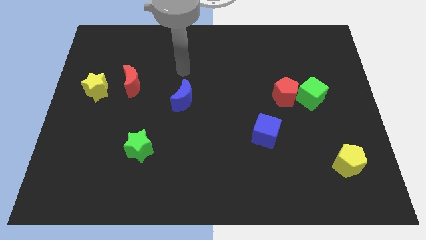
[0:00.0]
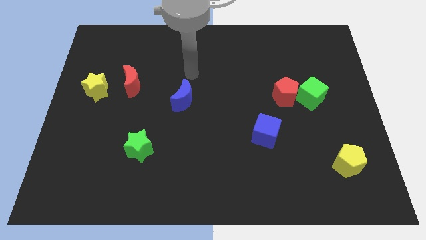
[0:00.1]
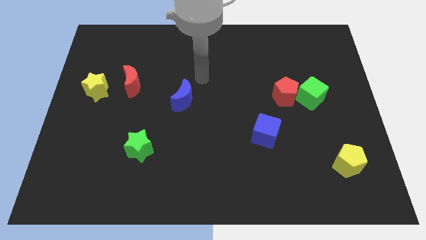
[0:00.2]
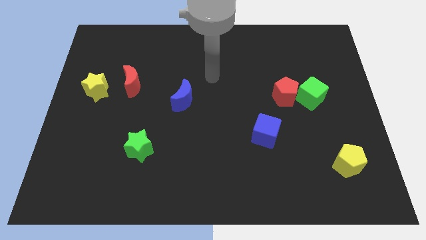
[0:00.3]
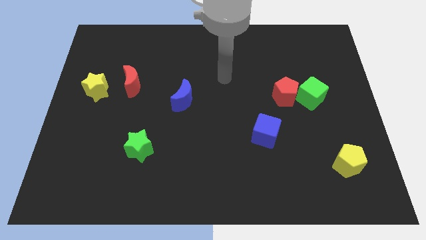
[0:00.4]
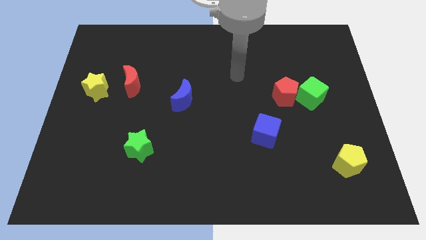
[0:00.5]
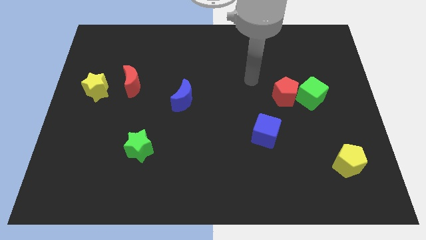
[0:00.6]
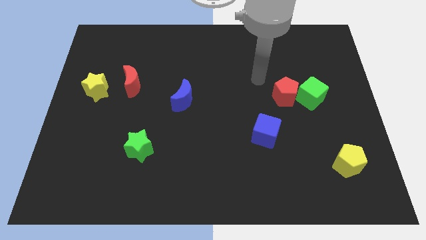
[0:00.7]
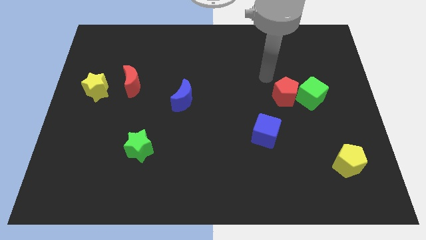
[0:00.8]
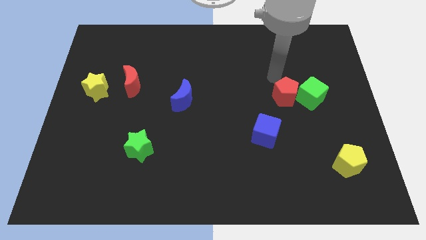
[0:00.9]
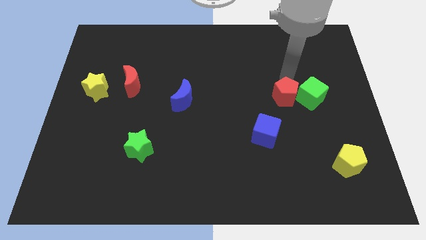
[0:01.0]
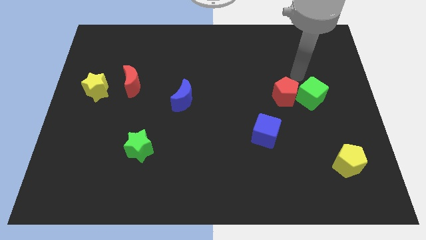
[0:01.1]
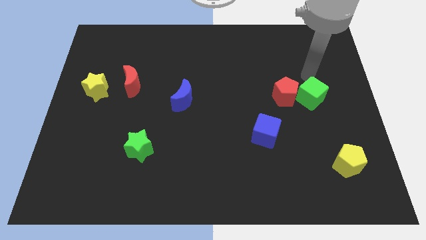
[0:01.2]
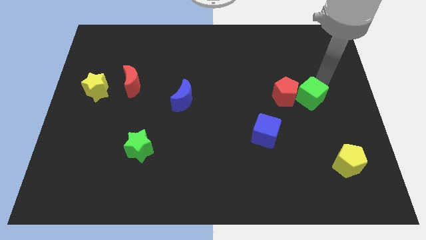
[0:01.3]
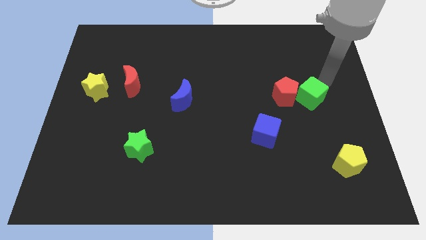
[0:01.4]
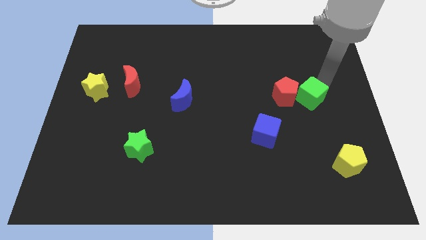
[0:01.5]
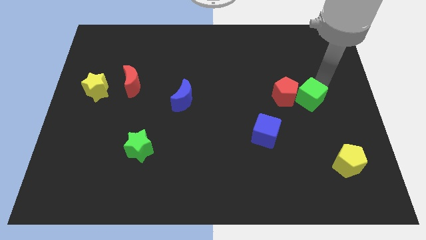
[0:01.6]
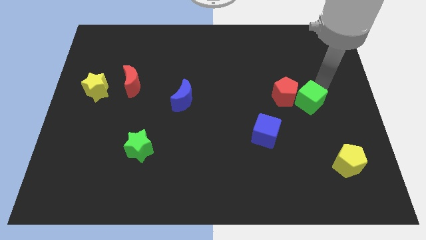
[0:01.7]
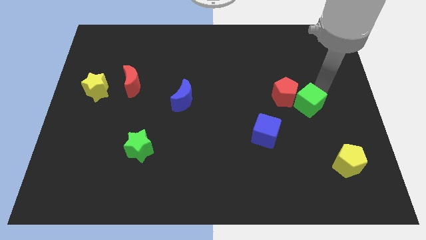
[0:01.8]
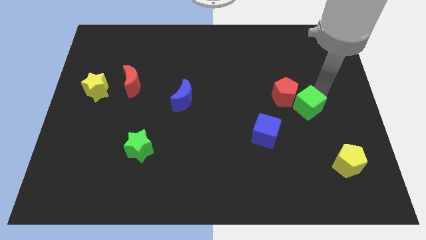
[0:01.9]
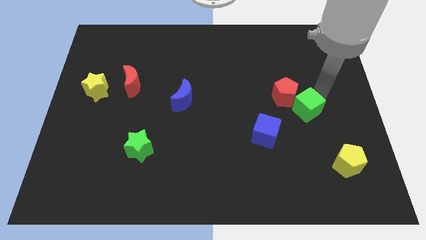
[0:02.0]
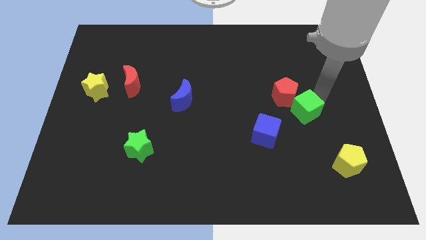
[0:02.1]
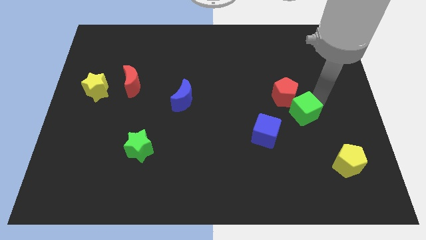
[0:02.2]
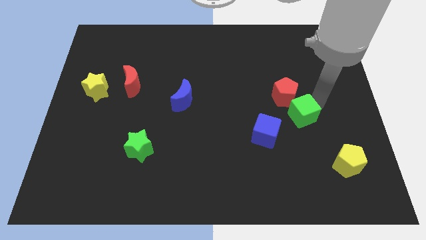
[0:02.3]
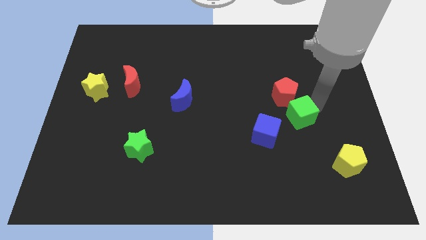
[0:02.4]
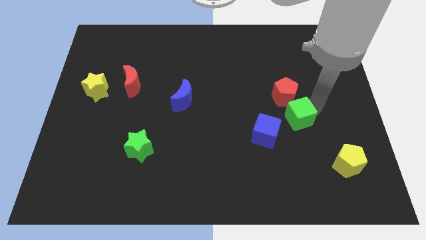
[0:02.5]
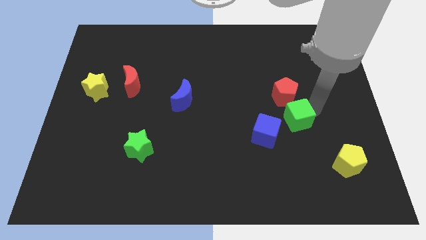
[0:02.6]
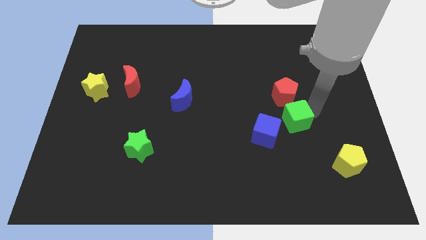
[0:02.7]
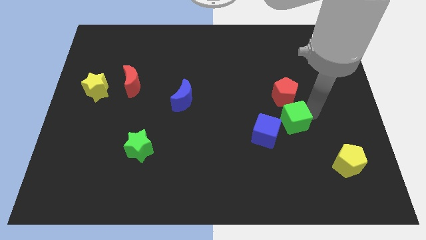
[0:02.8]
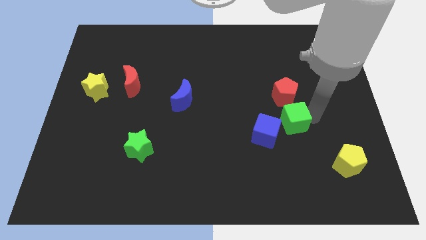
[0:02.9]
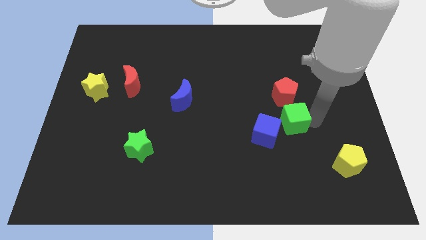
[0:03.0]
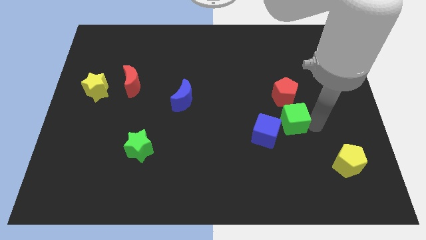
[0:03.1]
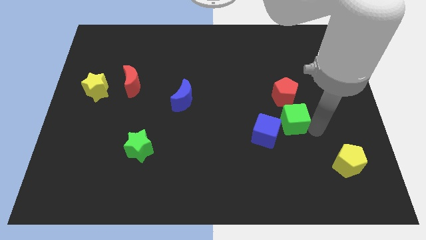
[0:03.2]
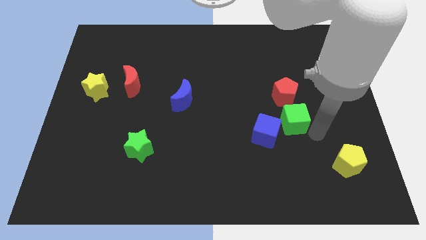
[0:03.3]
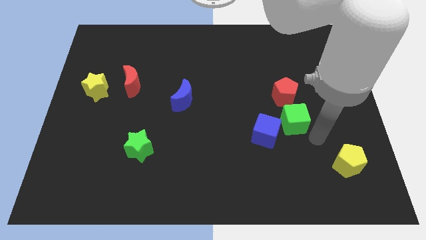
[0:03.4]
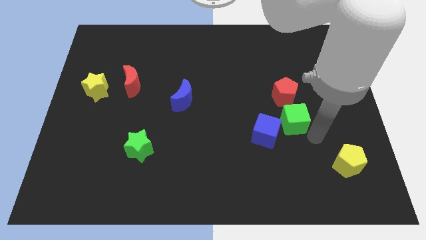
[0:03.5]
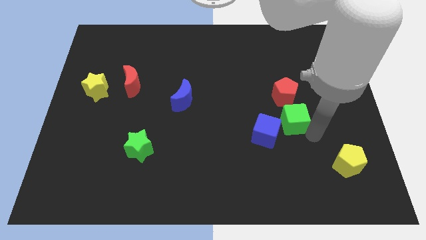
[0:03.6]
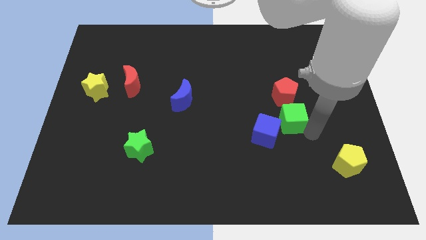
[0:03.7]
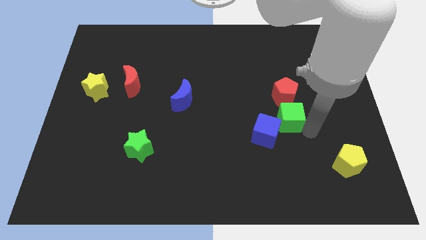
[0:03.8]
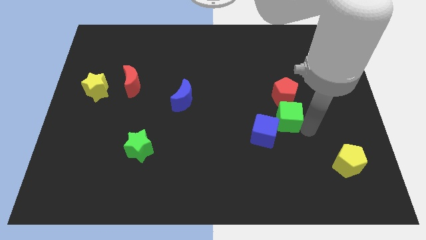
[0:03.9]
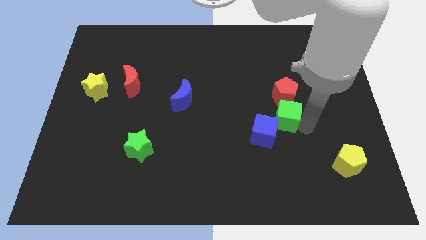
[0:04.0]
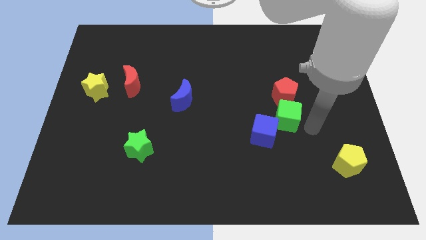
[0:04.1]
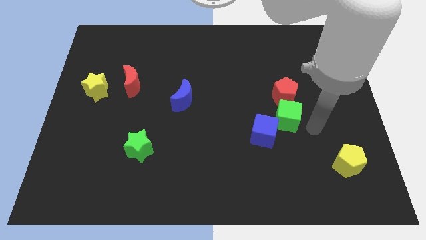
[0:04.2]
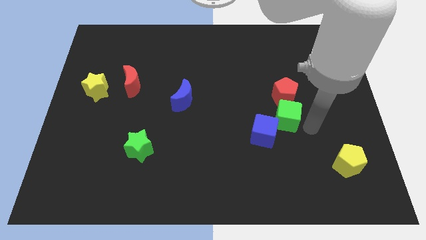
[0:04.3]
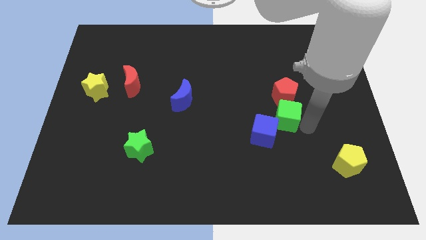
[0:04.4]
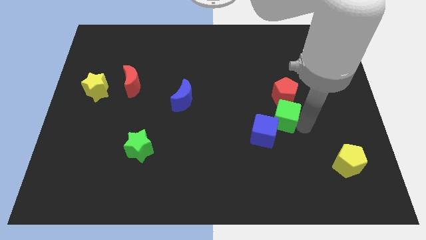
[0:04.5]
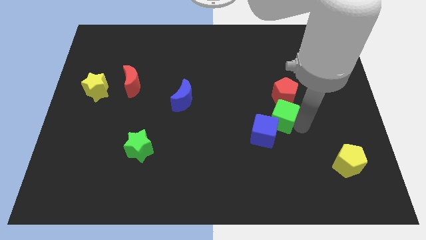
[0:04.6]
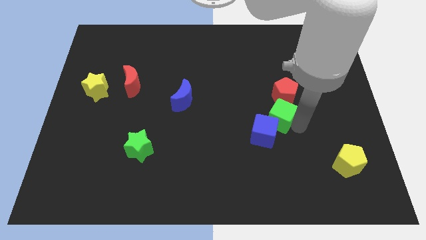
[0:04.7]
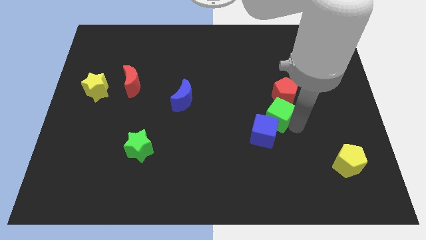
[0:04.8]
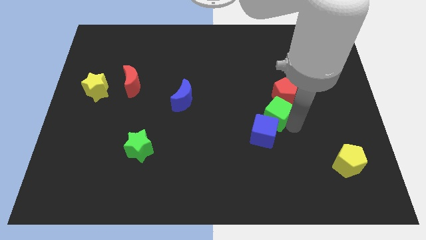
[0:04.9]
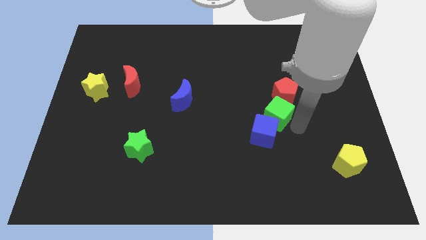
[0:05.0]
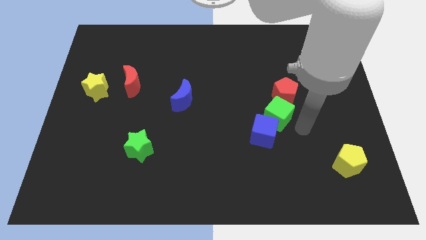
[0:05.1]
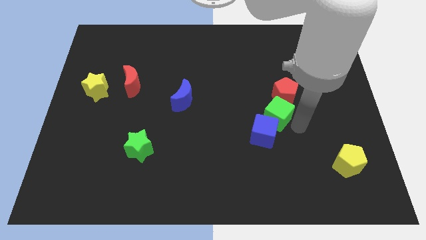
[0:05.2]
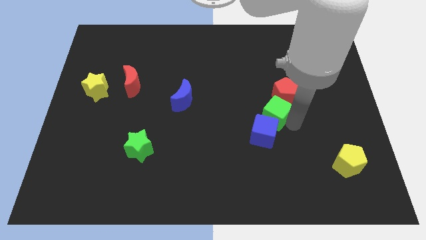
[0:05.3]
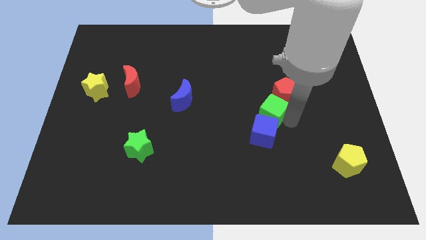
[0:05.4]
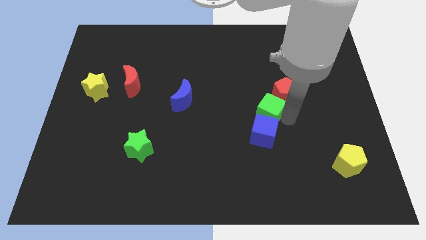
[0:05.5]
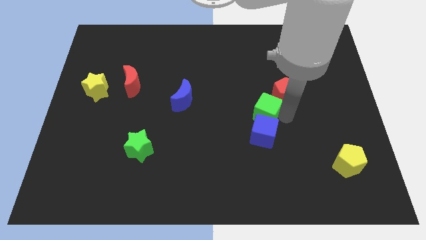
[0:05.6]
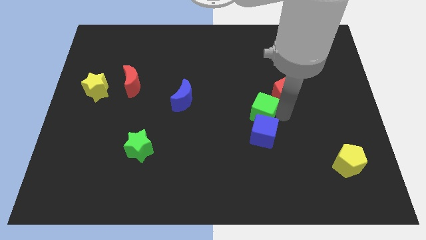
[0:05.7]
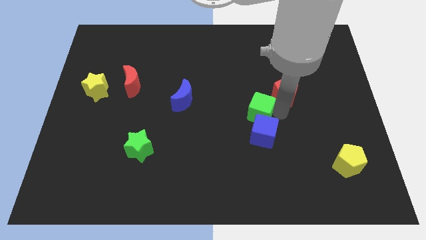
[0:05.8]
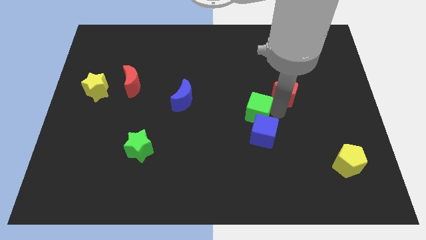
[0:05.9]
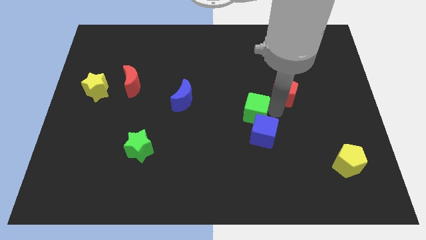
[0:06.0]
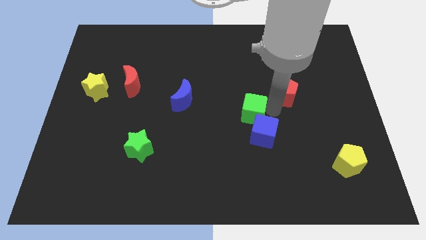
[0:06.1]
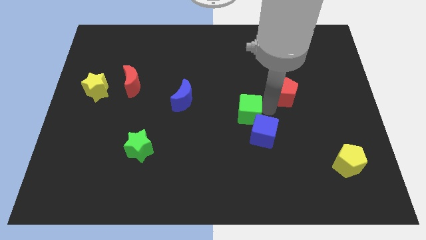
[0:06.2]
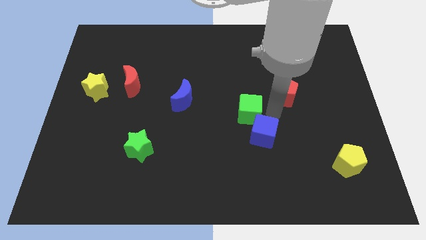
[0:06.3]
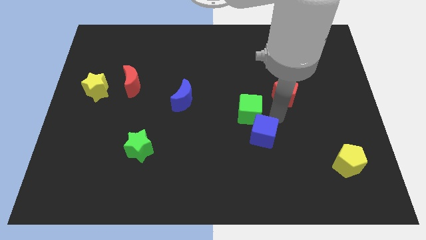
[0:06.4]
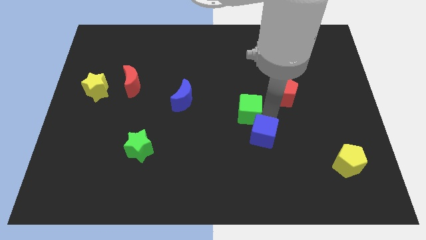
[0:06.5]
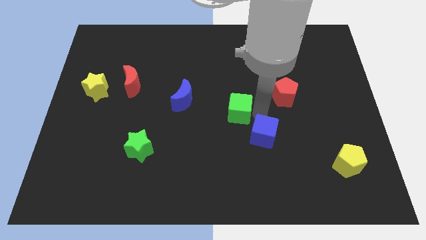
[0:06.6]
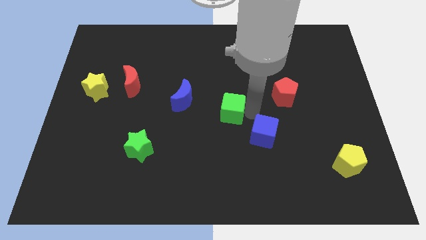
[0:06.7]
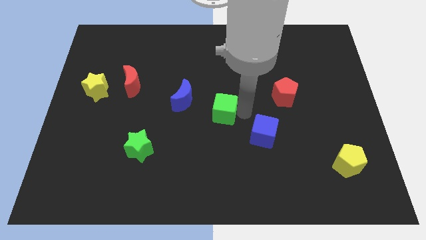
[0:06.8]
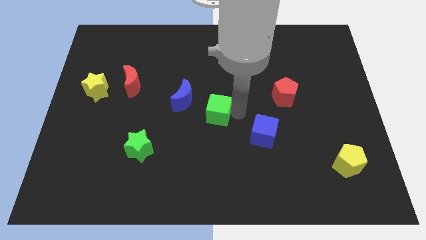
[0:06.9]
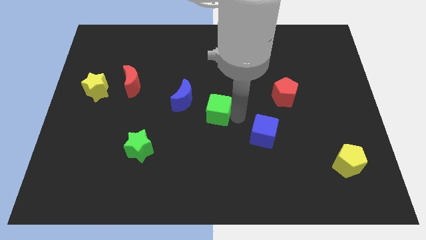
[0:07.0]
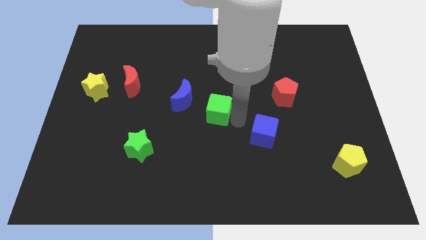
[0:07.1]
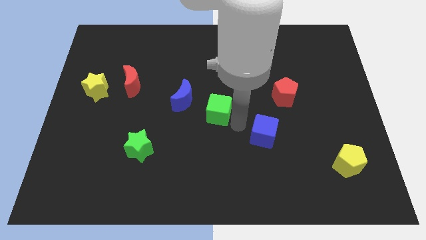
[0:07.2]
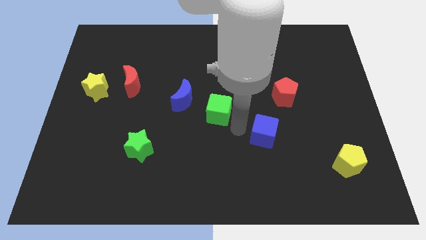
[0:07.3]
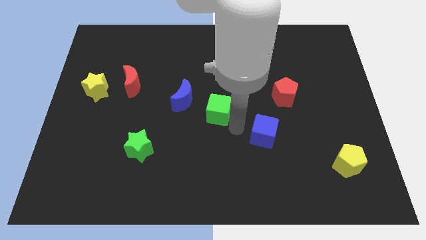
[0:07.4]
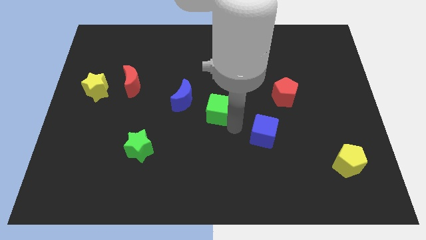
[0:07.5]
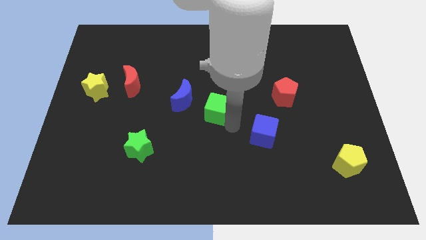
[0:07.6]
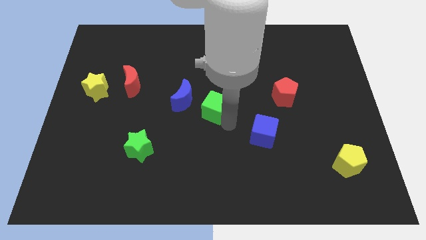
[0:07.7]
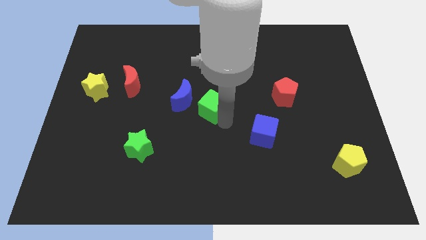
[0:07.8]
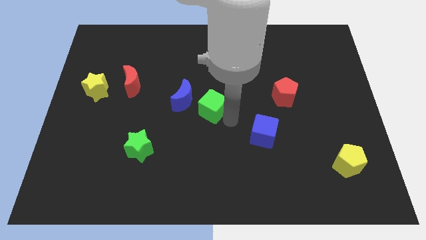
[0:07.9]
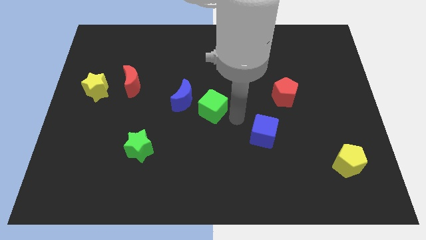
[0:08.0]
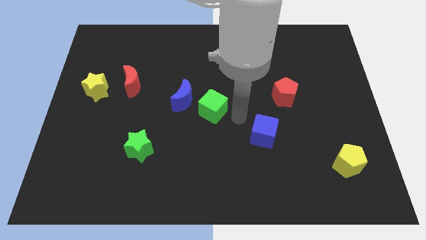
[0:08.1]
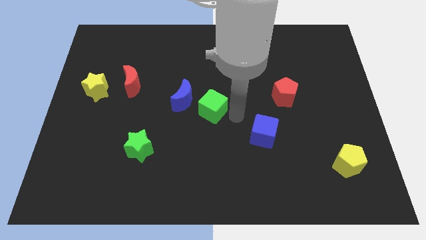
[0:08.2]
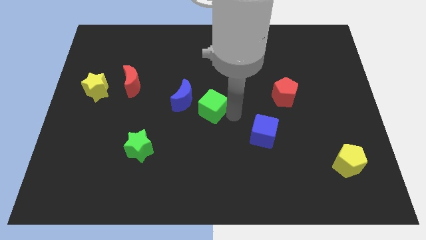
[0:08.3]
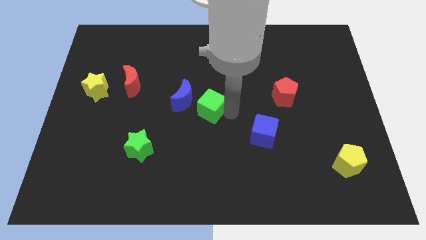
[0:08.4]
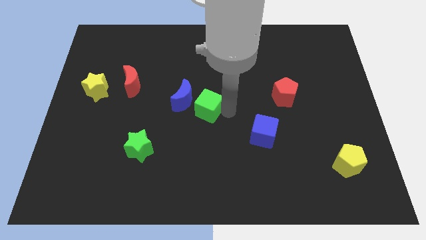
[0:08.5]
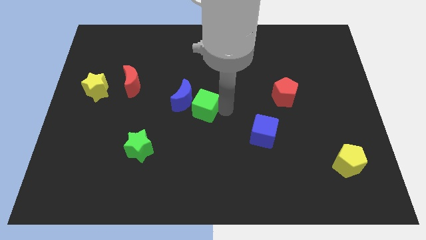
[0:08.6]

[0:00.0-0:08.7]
push the green cube towards the blue moon
